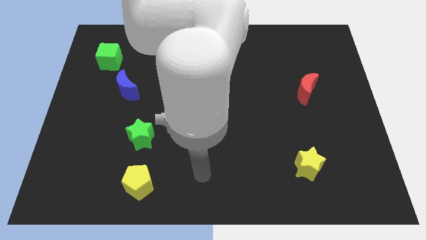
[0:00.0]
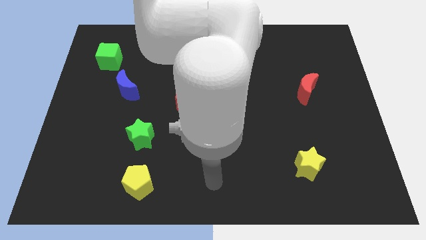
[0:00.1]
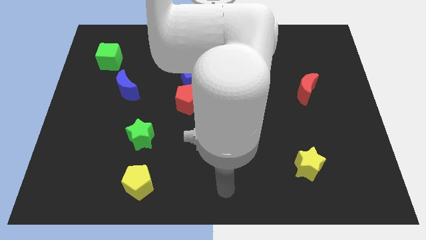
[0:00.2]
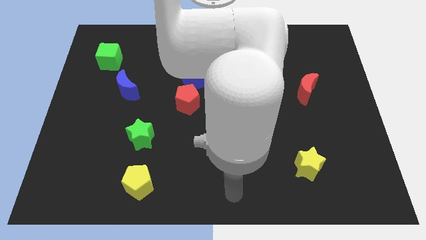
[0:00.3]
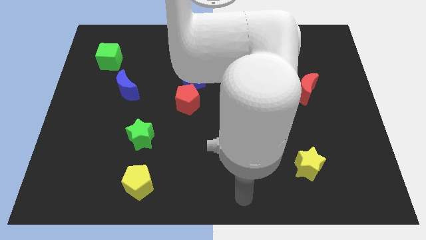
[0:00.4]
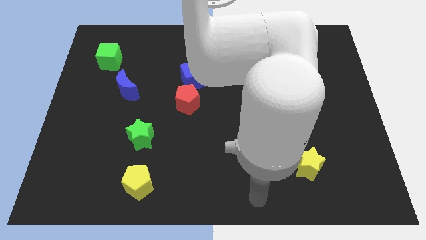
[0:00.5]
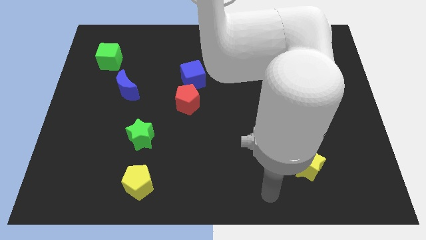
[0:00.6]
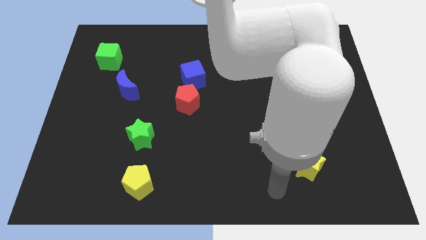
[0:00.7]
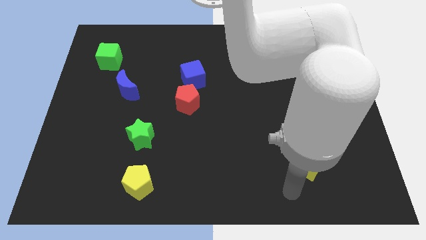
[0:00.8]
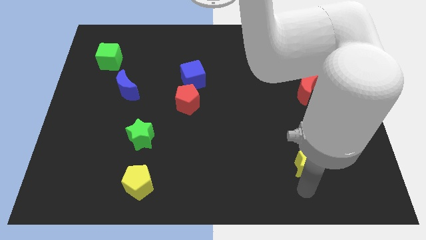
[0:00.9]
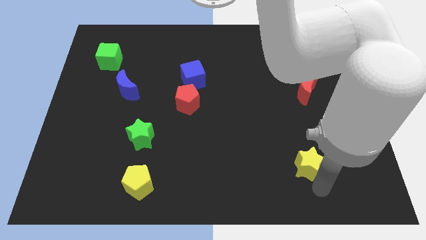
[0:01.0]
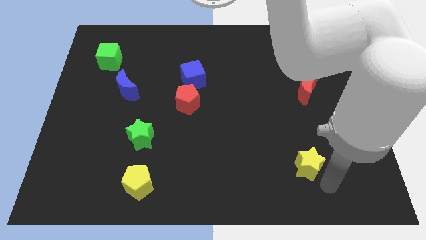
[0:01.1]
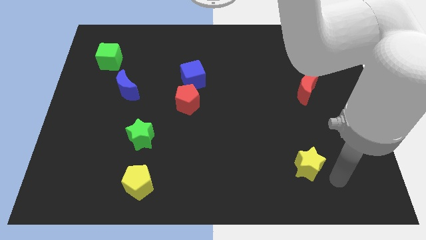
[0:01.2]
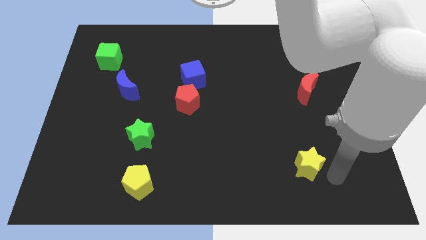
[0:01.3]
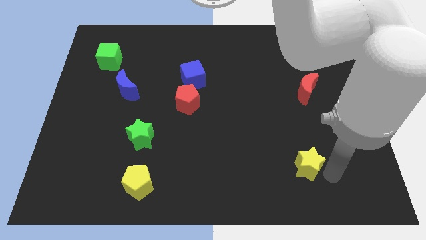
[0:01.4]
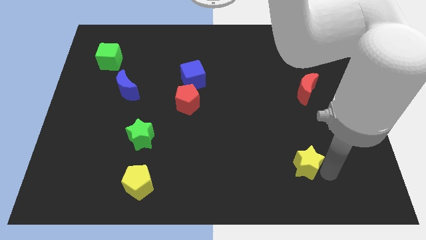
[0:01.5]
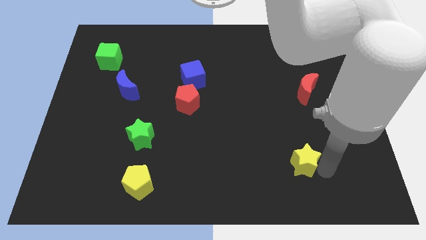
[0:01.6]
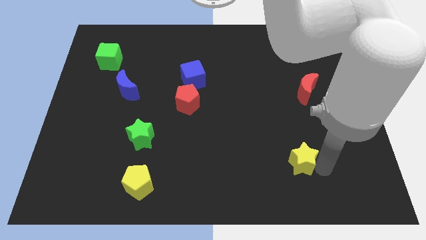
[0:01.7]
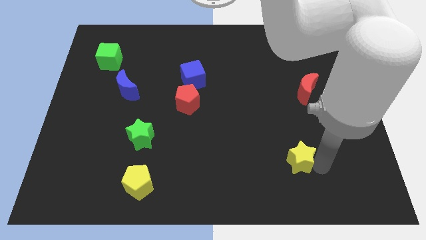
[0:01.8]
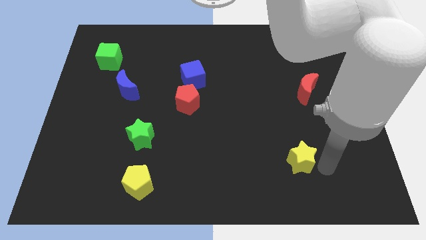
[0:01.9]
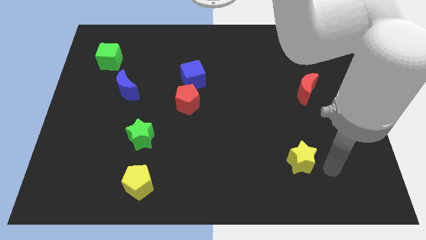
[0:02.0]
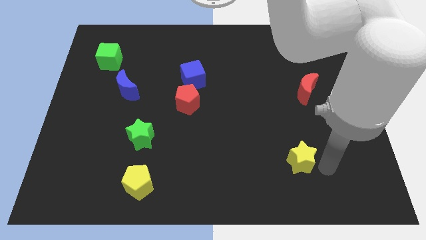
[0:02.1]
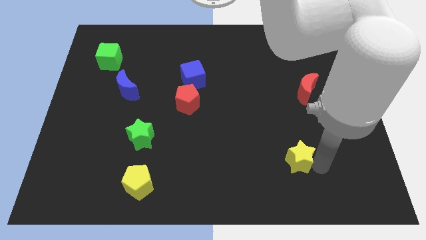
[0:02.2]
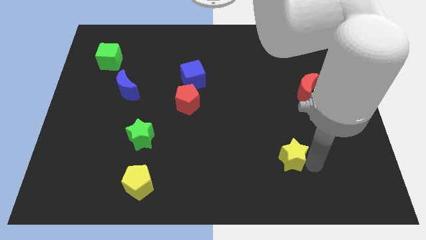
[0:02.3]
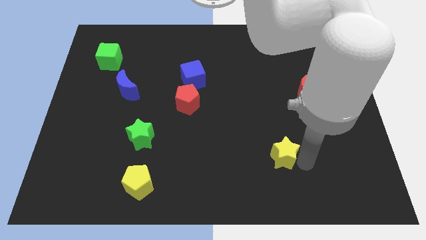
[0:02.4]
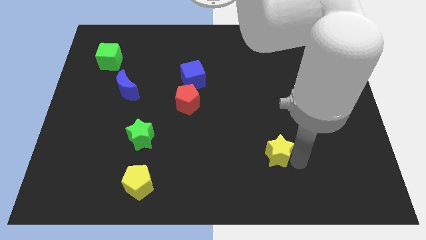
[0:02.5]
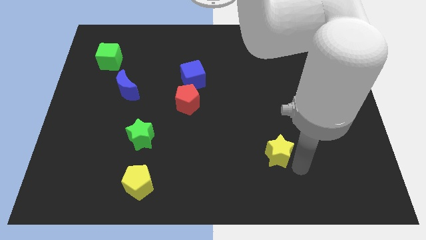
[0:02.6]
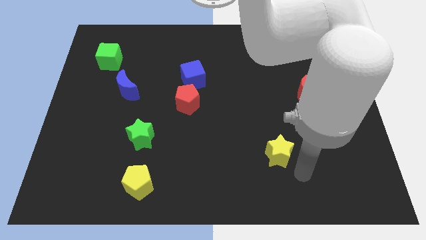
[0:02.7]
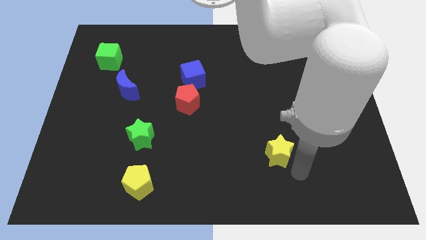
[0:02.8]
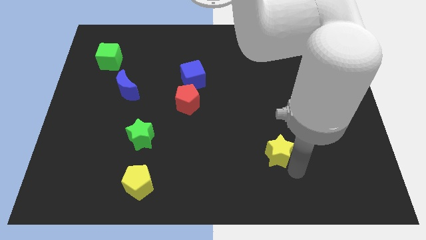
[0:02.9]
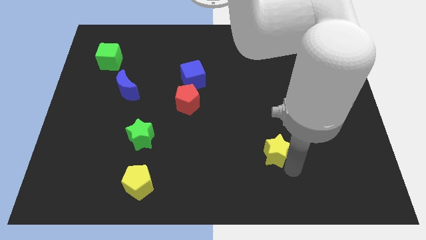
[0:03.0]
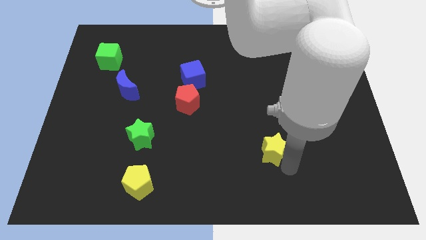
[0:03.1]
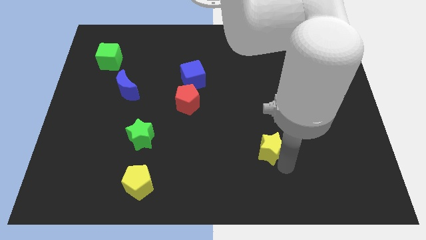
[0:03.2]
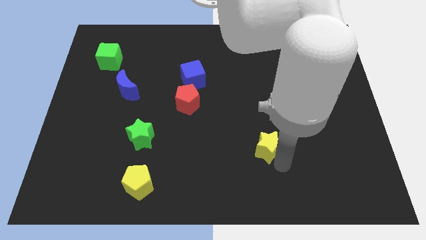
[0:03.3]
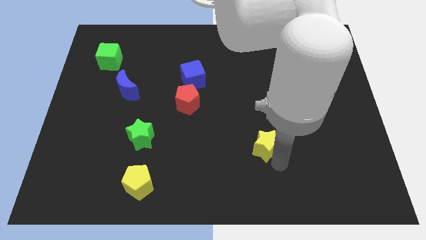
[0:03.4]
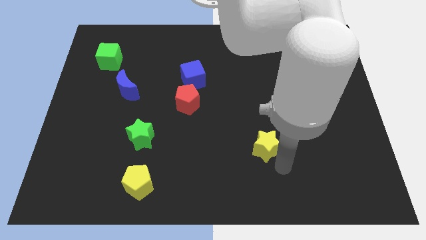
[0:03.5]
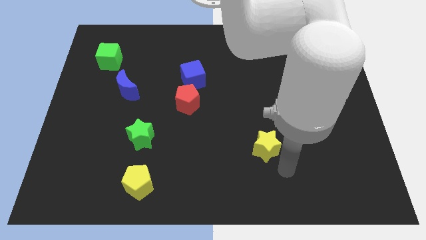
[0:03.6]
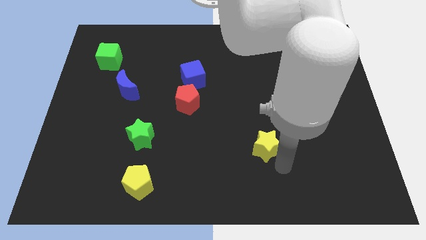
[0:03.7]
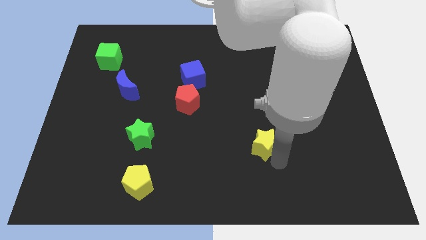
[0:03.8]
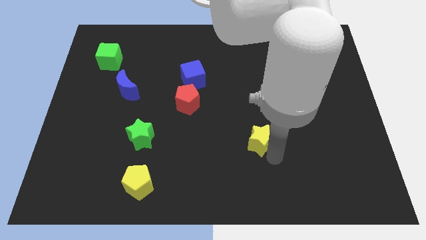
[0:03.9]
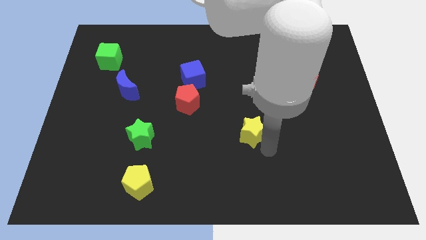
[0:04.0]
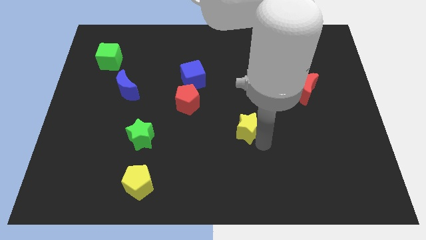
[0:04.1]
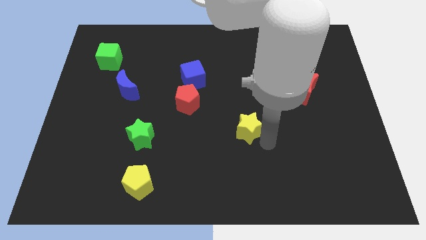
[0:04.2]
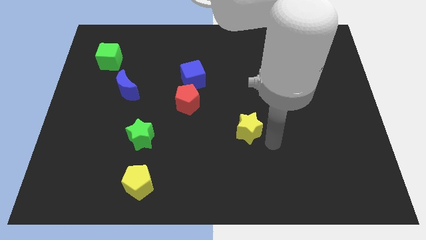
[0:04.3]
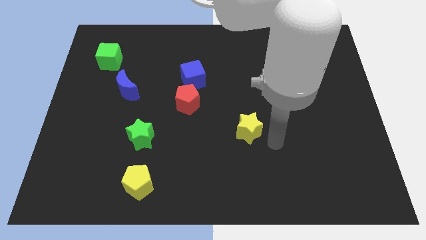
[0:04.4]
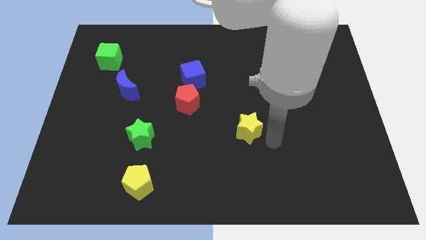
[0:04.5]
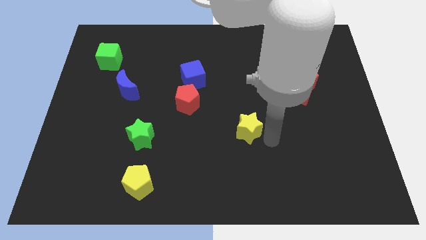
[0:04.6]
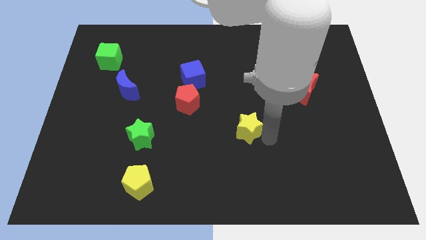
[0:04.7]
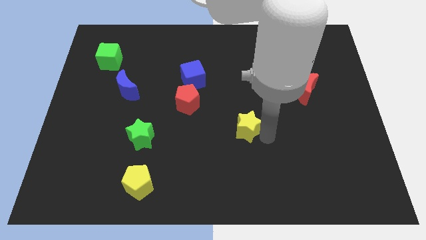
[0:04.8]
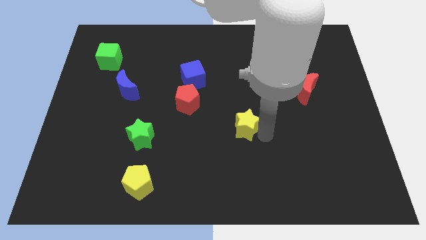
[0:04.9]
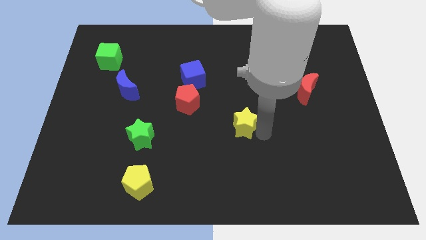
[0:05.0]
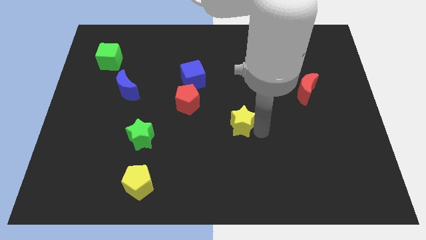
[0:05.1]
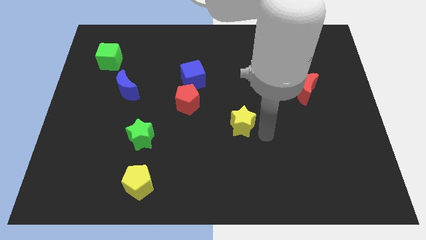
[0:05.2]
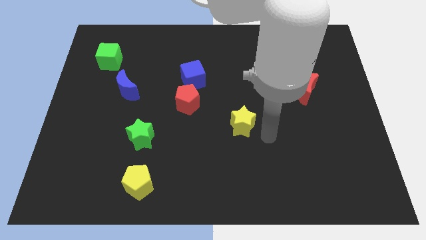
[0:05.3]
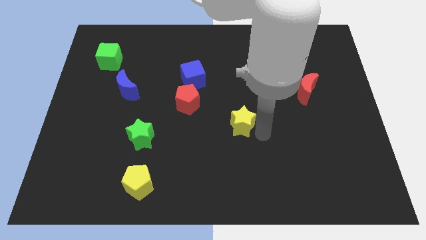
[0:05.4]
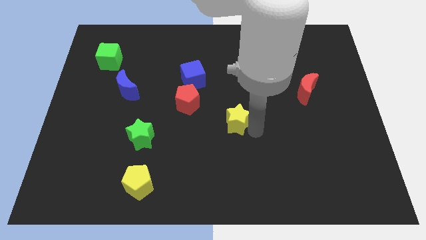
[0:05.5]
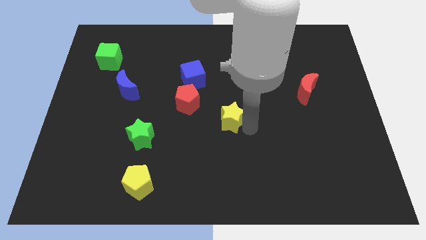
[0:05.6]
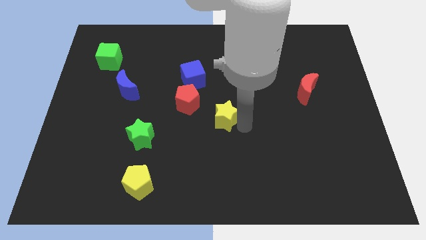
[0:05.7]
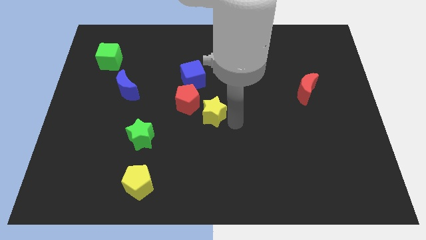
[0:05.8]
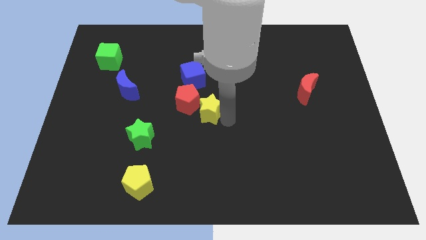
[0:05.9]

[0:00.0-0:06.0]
push the yellow star next to the red pentagon
